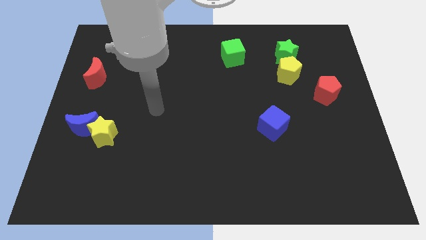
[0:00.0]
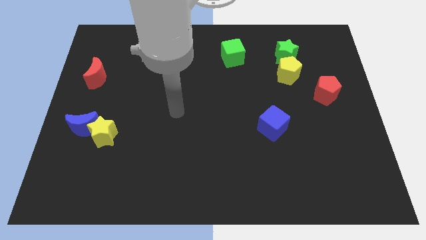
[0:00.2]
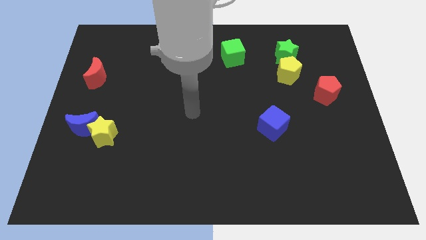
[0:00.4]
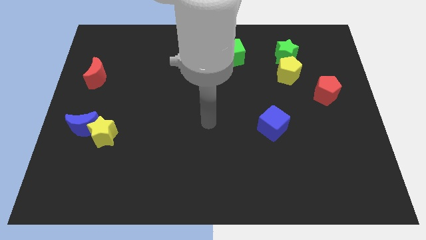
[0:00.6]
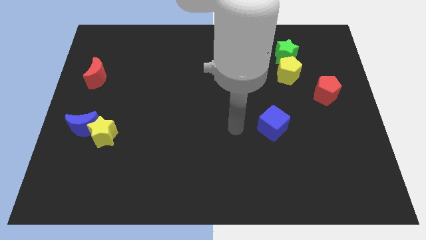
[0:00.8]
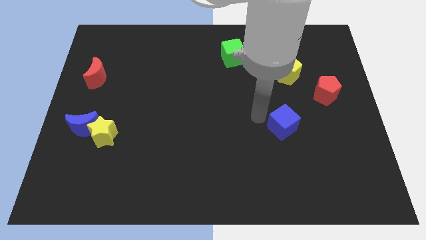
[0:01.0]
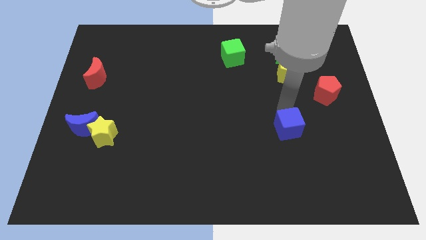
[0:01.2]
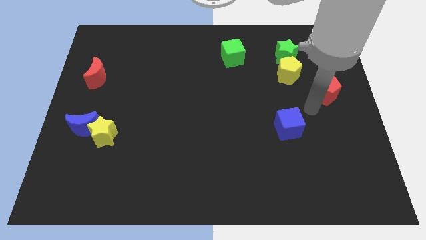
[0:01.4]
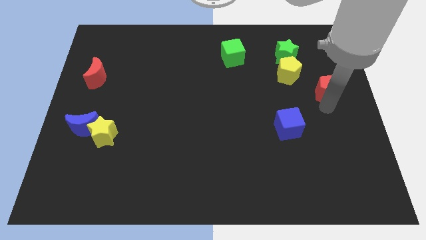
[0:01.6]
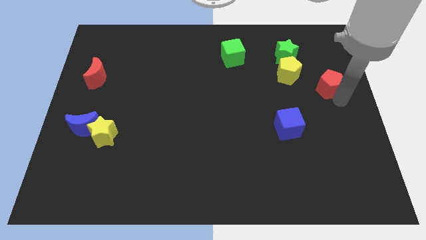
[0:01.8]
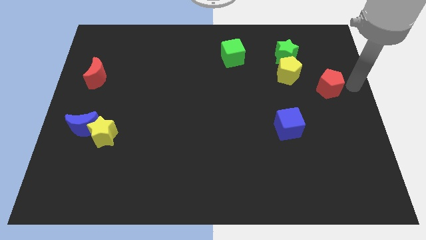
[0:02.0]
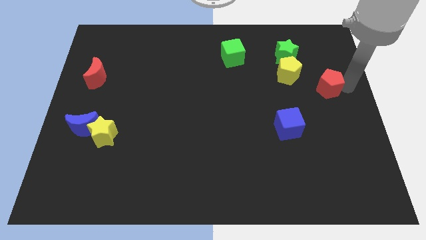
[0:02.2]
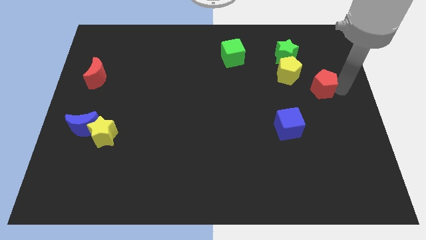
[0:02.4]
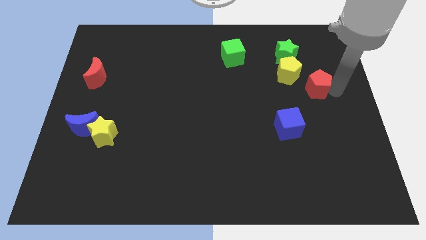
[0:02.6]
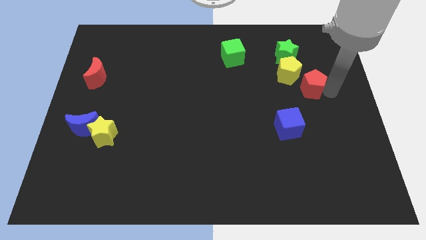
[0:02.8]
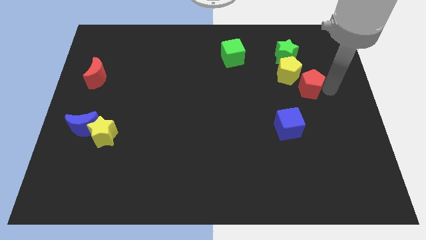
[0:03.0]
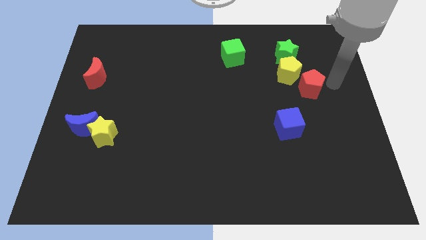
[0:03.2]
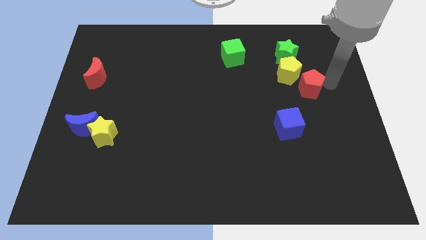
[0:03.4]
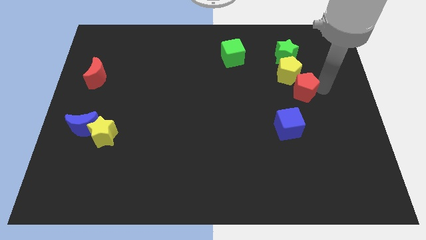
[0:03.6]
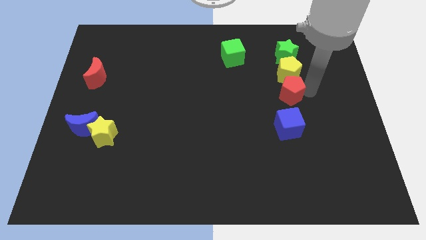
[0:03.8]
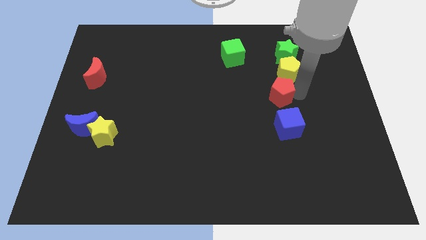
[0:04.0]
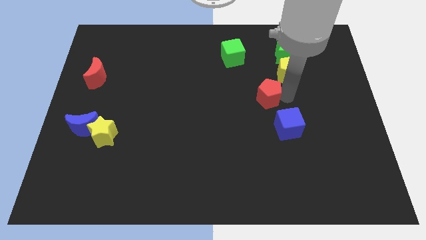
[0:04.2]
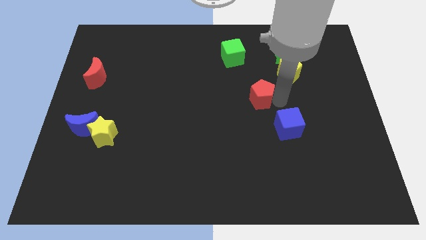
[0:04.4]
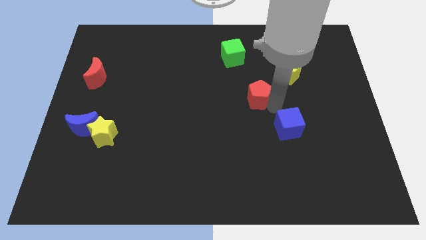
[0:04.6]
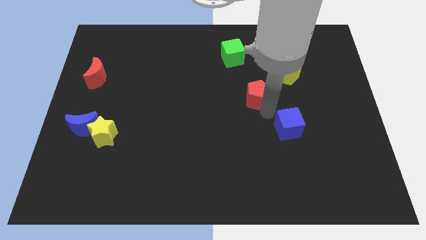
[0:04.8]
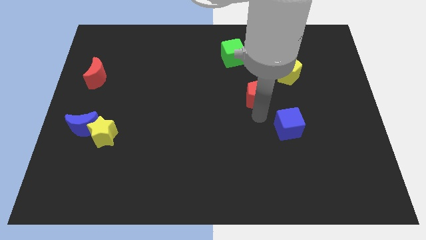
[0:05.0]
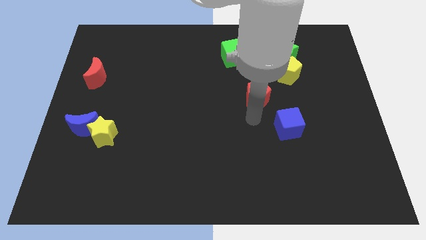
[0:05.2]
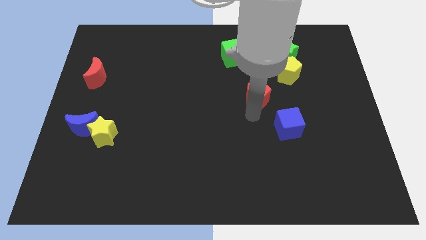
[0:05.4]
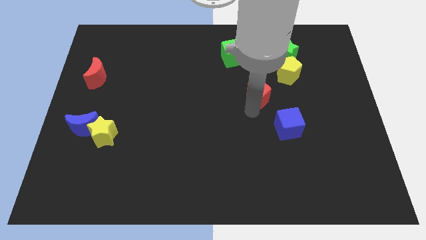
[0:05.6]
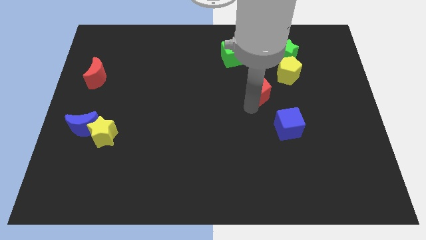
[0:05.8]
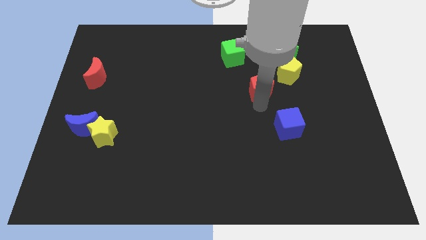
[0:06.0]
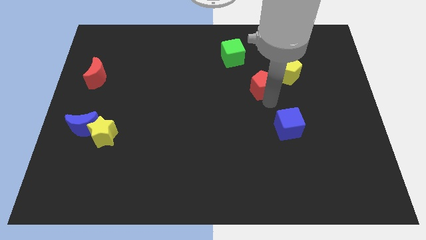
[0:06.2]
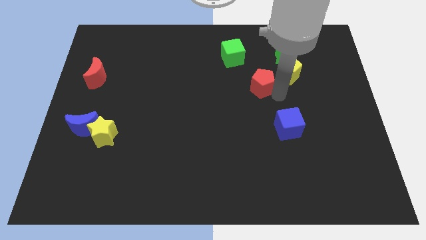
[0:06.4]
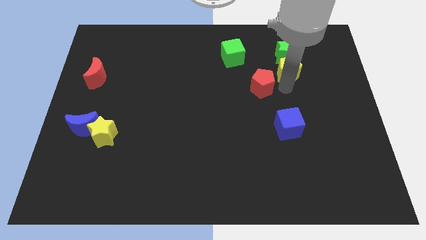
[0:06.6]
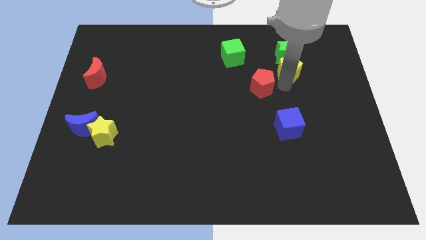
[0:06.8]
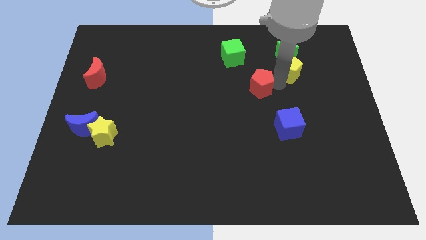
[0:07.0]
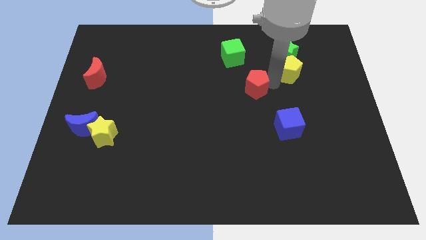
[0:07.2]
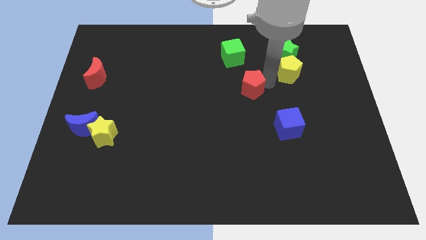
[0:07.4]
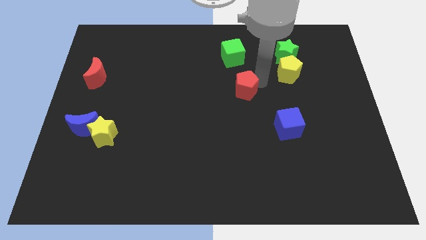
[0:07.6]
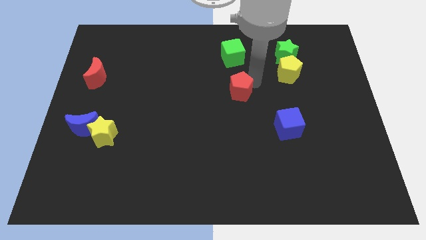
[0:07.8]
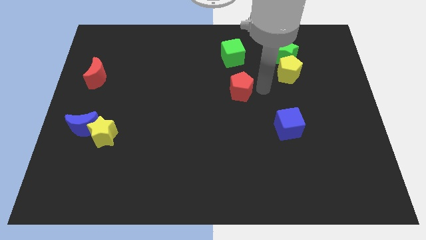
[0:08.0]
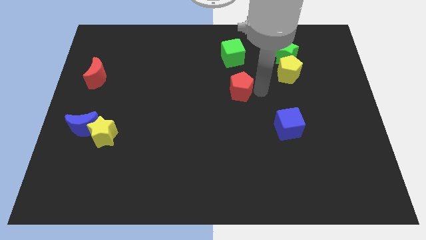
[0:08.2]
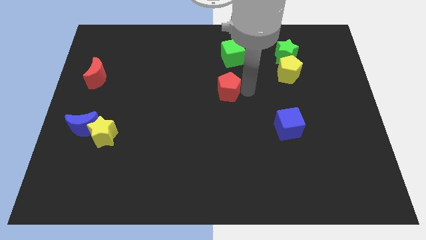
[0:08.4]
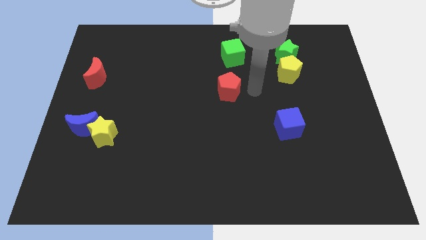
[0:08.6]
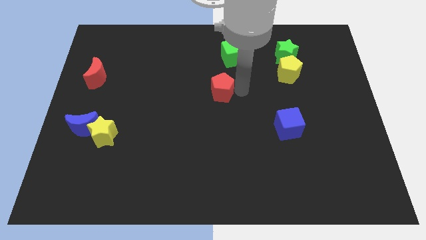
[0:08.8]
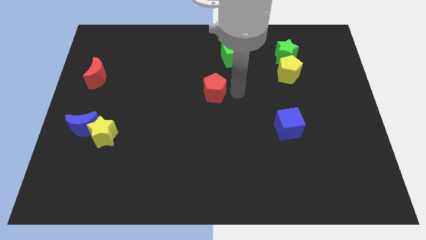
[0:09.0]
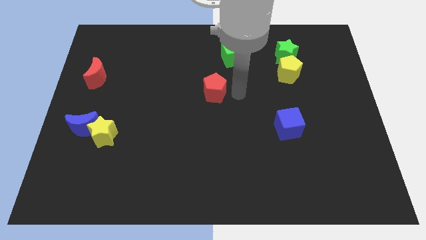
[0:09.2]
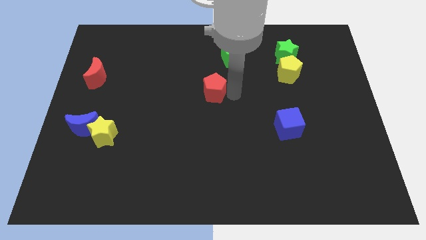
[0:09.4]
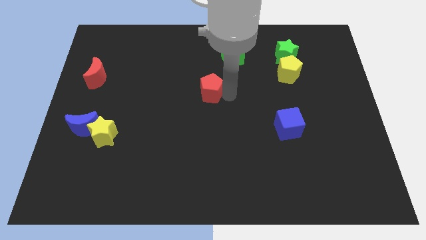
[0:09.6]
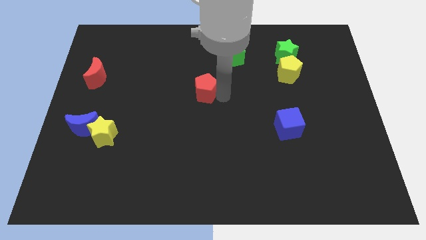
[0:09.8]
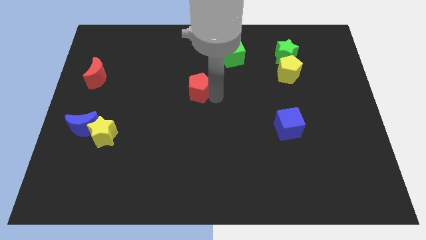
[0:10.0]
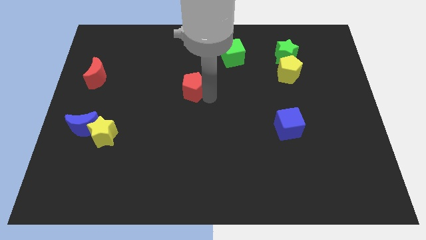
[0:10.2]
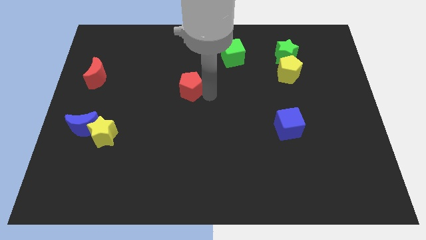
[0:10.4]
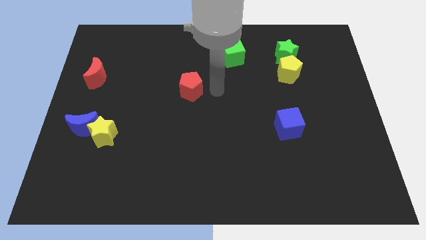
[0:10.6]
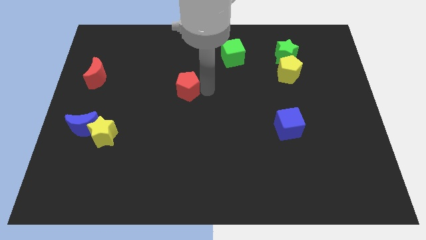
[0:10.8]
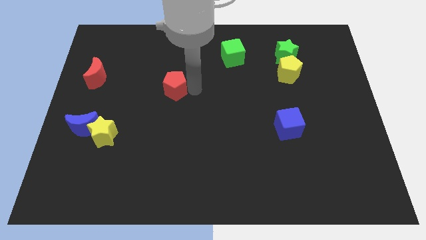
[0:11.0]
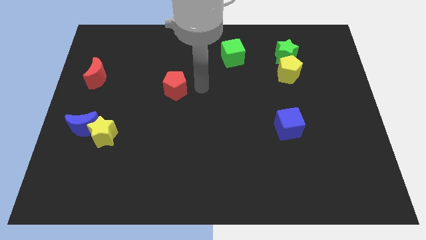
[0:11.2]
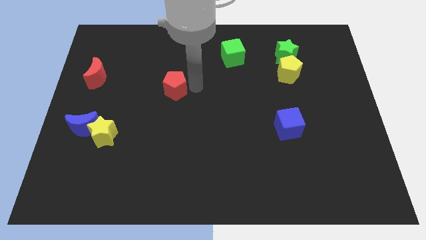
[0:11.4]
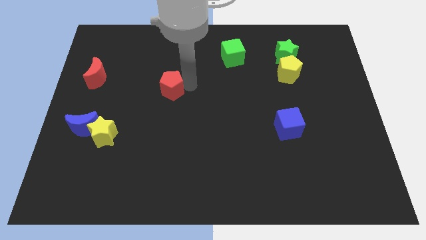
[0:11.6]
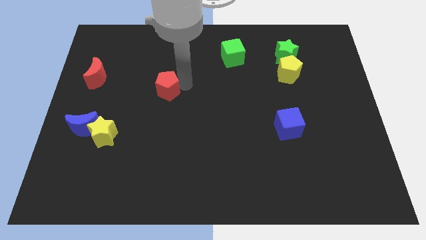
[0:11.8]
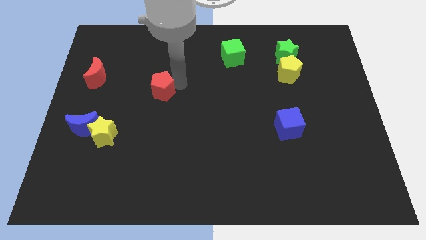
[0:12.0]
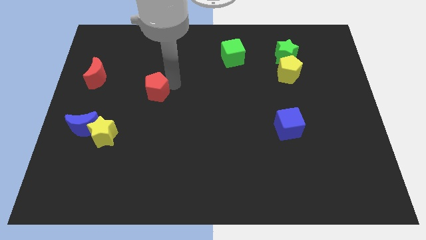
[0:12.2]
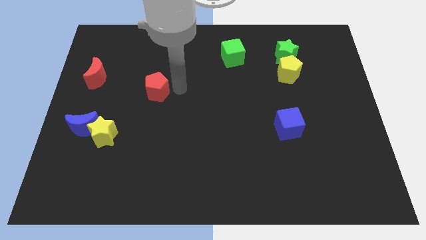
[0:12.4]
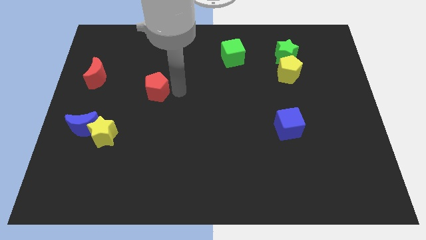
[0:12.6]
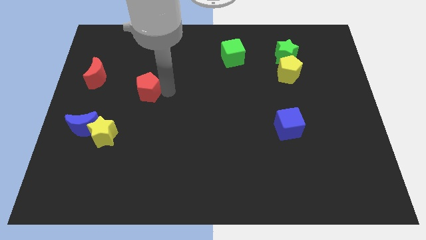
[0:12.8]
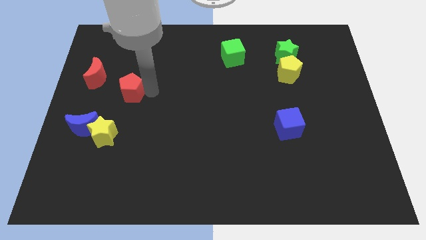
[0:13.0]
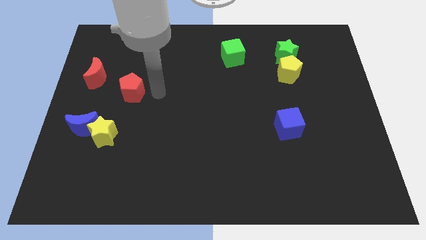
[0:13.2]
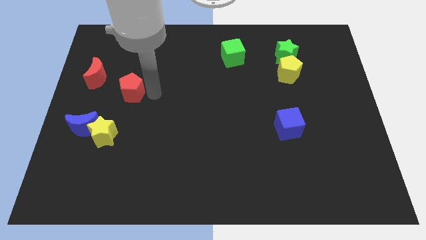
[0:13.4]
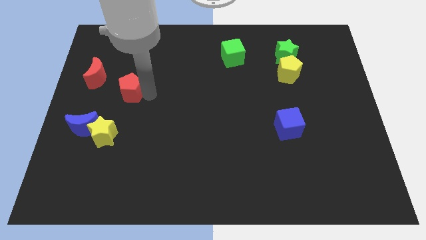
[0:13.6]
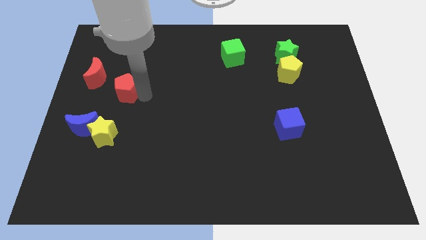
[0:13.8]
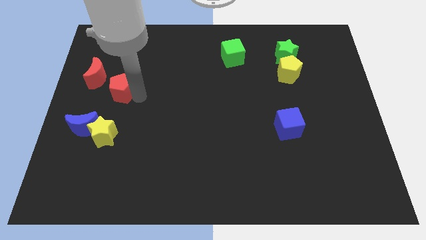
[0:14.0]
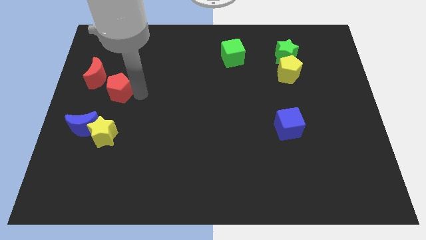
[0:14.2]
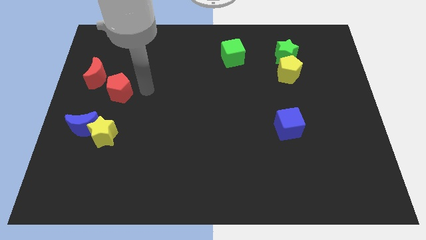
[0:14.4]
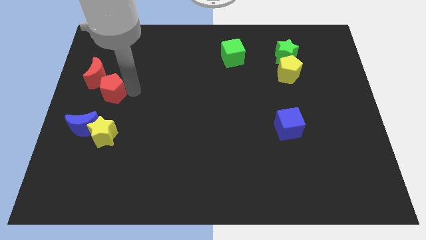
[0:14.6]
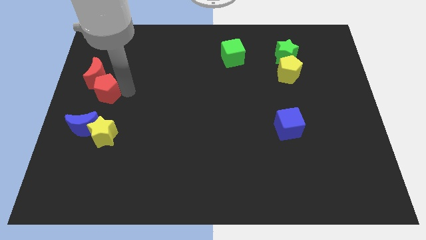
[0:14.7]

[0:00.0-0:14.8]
slide the red pentagon to the center left
